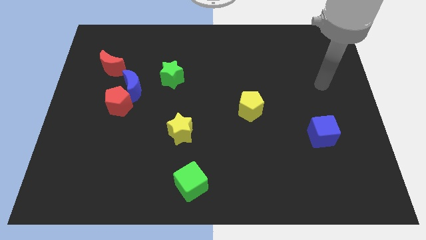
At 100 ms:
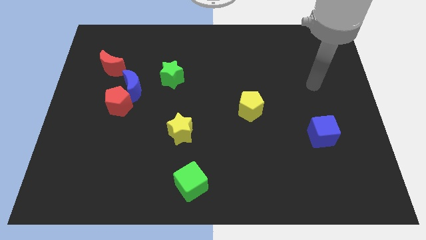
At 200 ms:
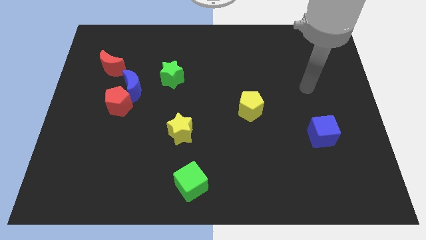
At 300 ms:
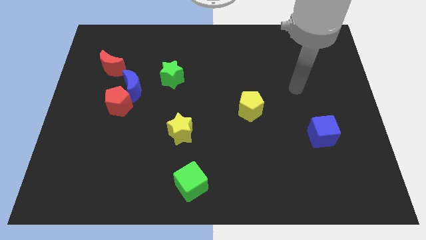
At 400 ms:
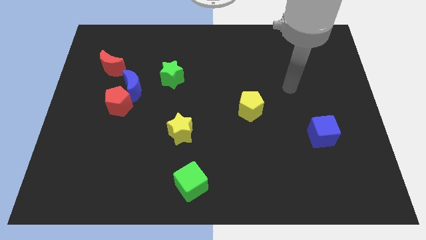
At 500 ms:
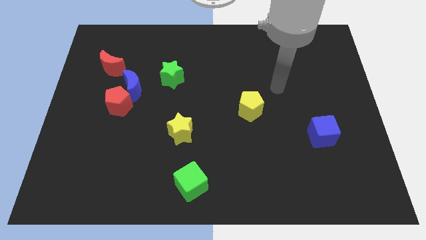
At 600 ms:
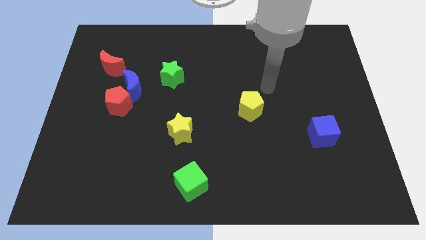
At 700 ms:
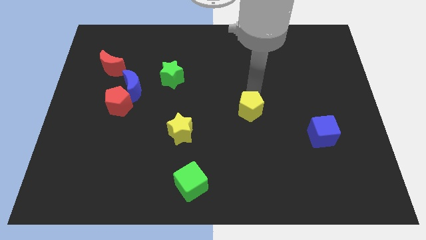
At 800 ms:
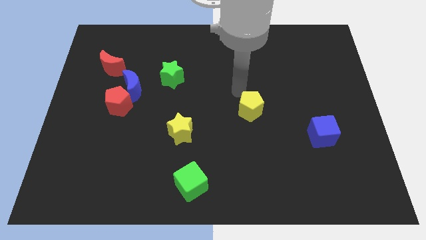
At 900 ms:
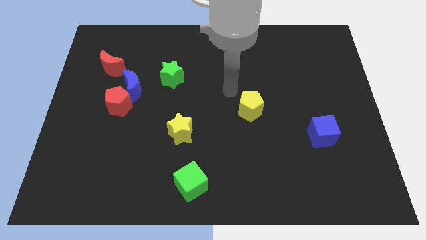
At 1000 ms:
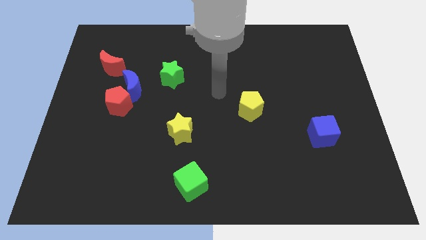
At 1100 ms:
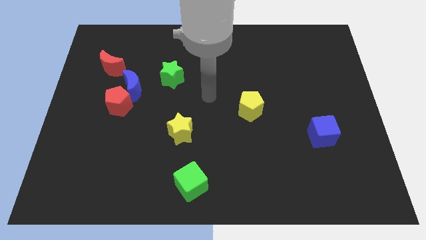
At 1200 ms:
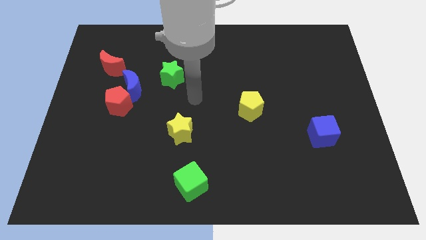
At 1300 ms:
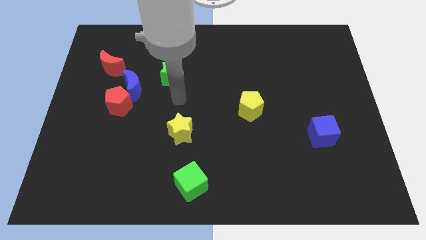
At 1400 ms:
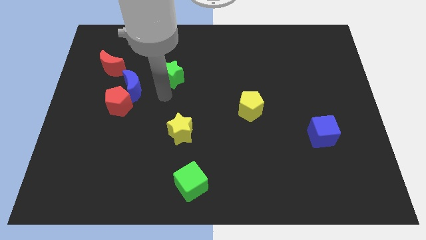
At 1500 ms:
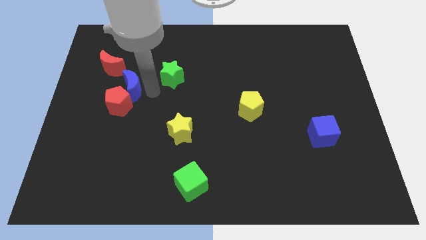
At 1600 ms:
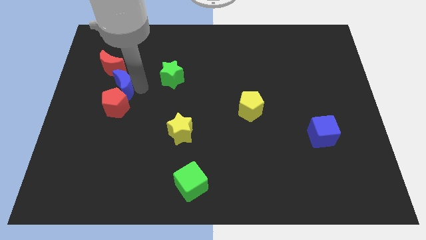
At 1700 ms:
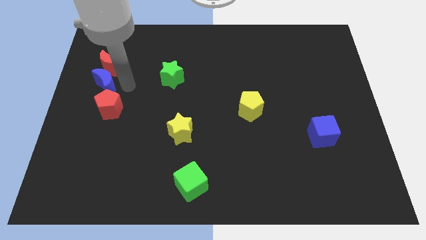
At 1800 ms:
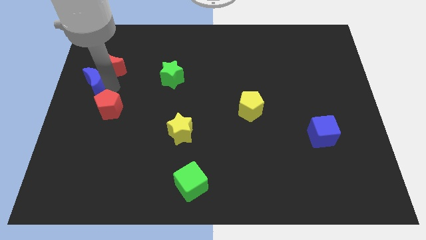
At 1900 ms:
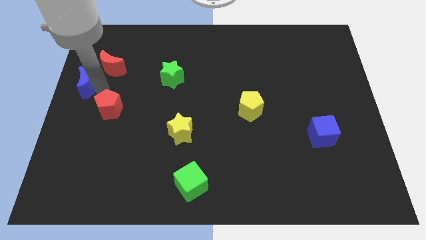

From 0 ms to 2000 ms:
move the red pentagon away from the blue moon

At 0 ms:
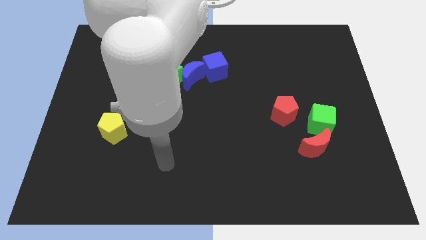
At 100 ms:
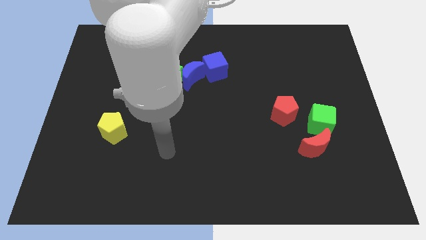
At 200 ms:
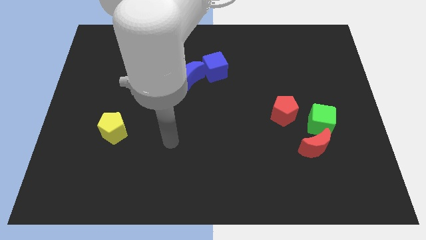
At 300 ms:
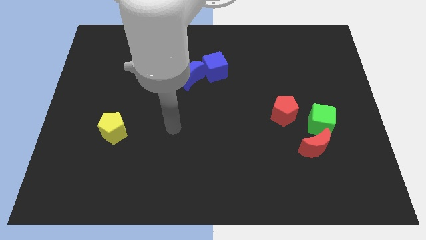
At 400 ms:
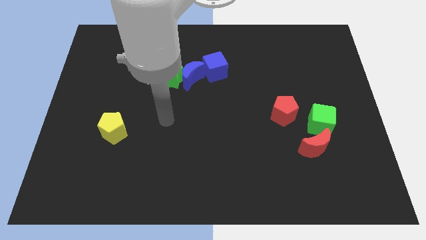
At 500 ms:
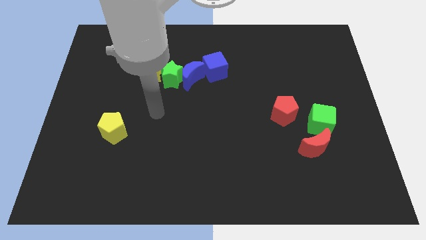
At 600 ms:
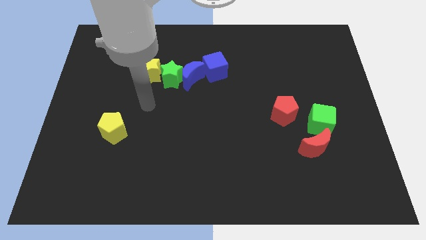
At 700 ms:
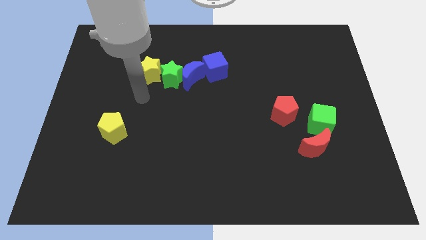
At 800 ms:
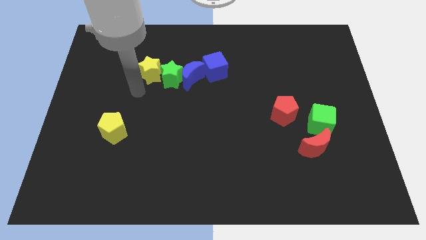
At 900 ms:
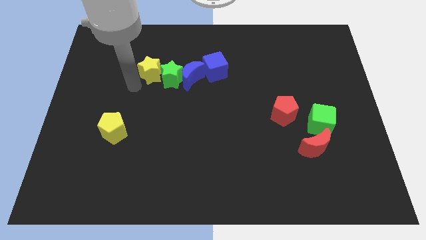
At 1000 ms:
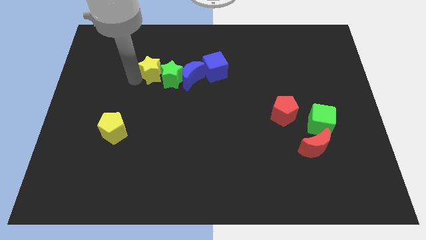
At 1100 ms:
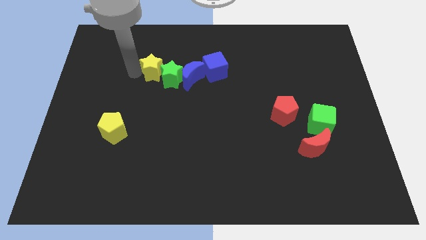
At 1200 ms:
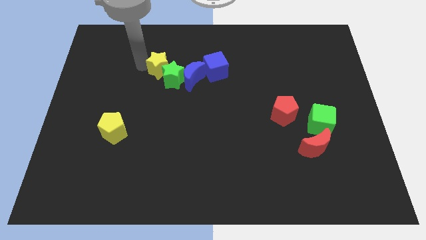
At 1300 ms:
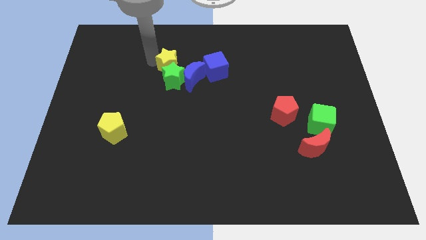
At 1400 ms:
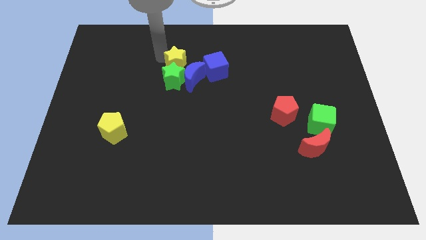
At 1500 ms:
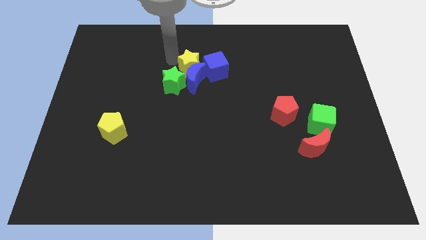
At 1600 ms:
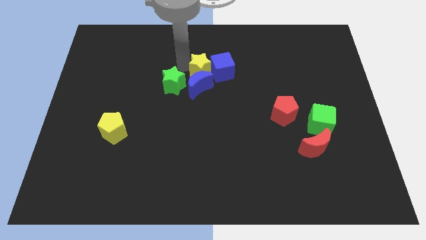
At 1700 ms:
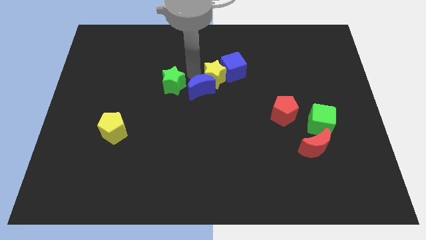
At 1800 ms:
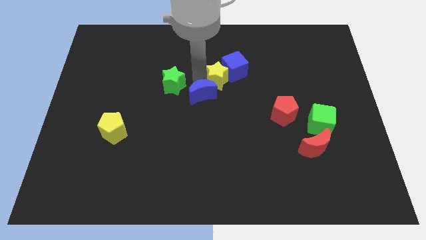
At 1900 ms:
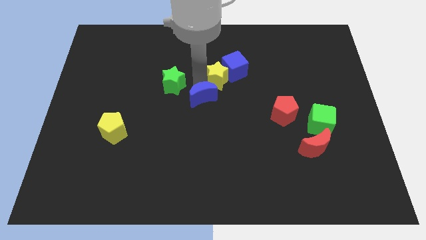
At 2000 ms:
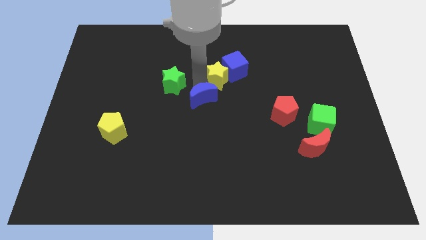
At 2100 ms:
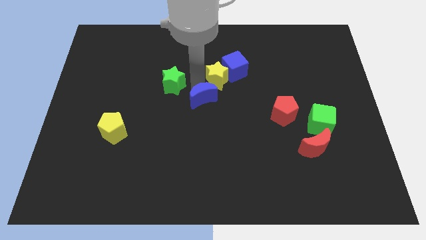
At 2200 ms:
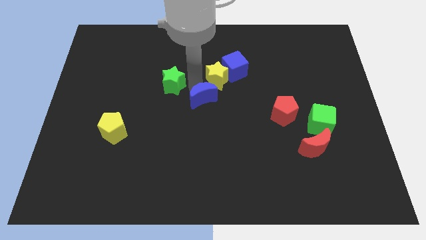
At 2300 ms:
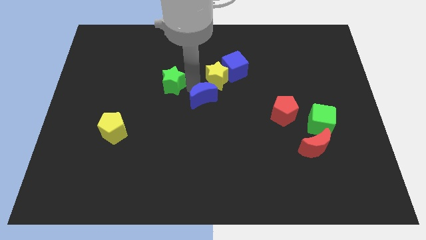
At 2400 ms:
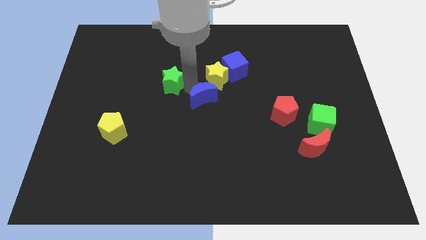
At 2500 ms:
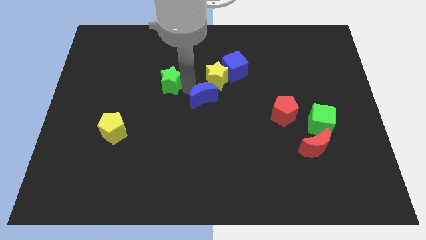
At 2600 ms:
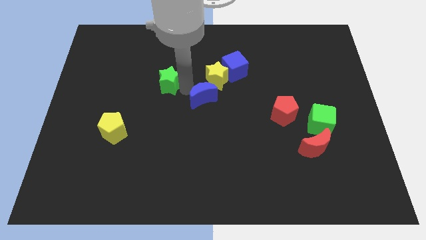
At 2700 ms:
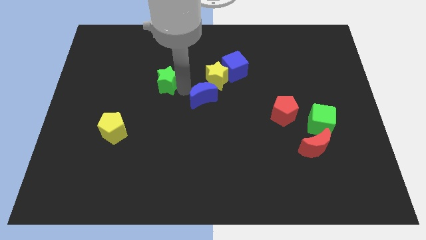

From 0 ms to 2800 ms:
pull the green star apart from the blue moon and yellow star

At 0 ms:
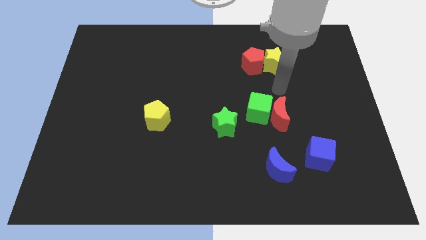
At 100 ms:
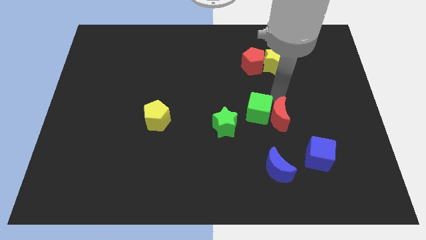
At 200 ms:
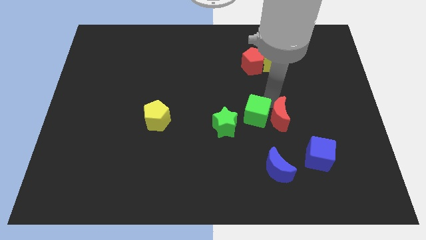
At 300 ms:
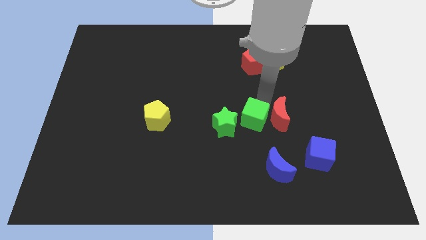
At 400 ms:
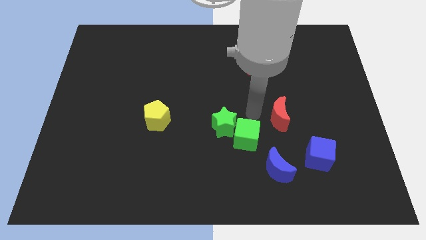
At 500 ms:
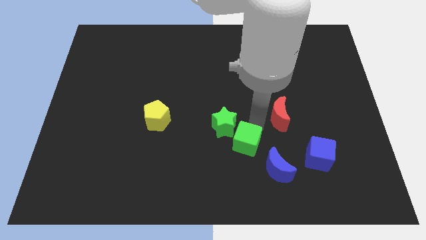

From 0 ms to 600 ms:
pull the red moon apart from the green cube

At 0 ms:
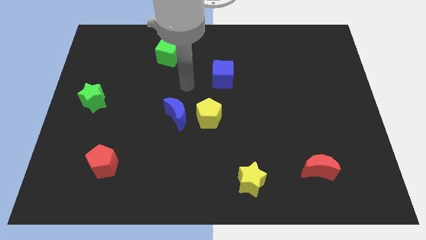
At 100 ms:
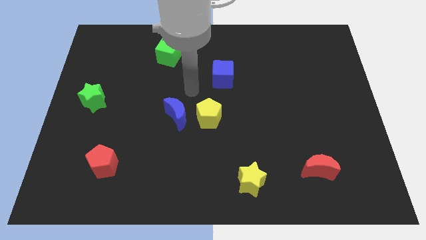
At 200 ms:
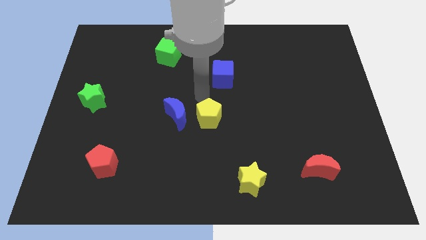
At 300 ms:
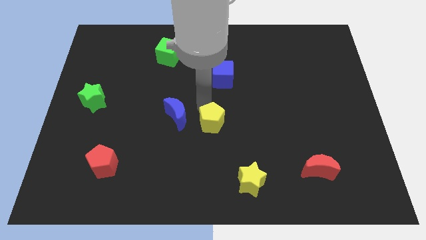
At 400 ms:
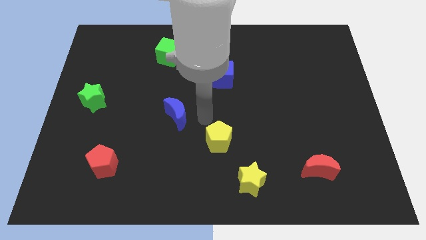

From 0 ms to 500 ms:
pull the blue moon apart from the yellow pentagon

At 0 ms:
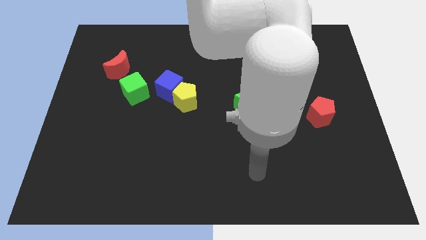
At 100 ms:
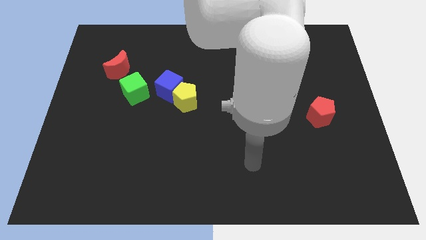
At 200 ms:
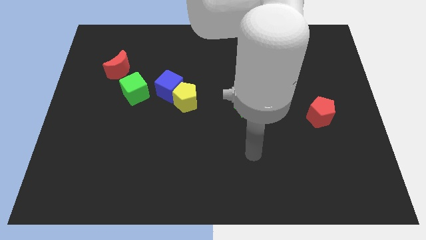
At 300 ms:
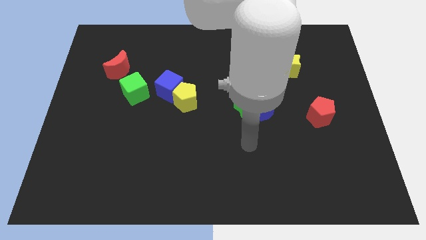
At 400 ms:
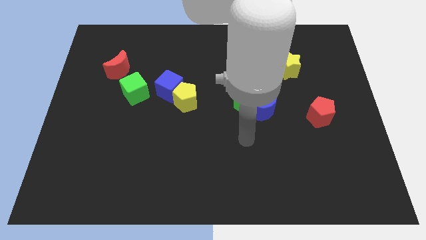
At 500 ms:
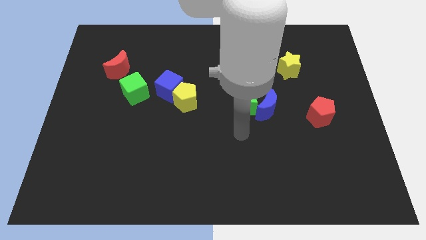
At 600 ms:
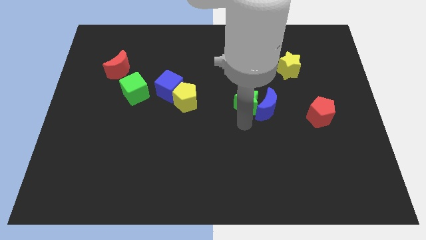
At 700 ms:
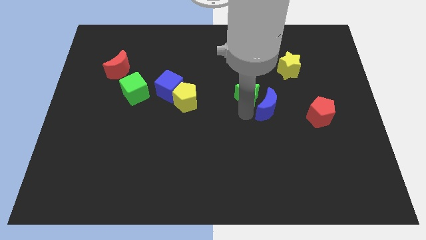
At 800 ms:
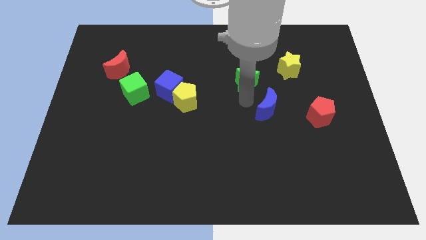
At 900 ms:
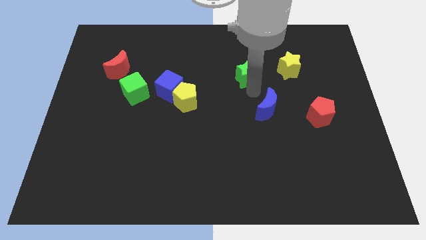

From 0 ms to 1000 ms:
separate the blue moon from the green star

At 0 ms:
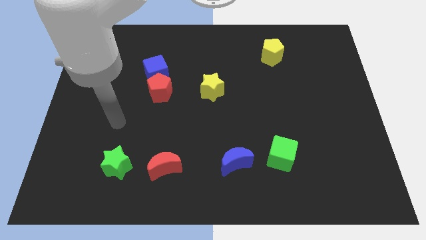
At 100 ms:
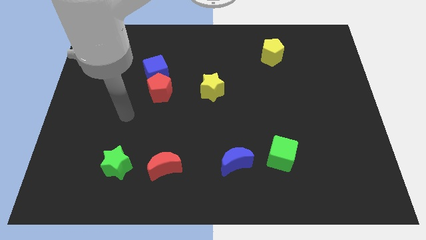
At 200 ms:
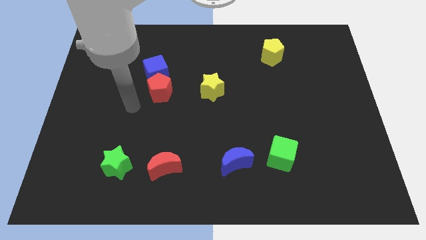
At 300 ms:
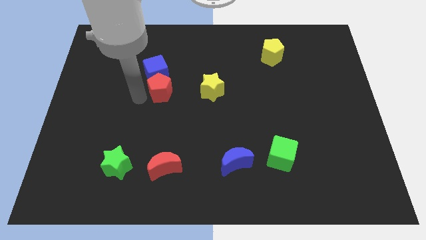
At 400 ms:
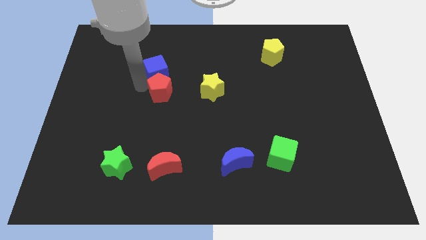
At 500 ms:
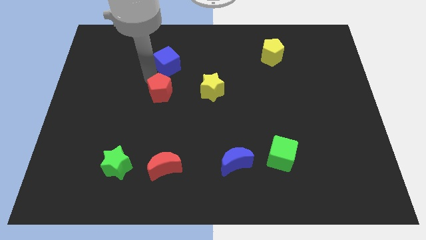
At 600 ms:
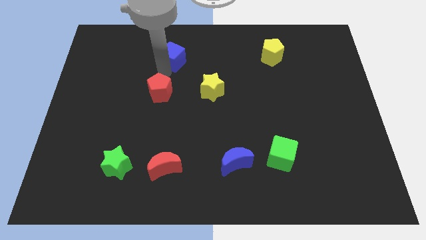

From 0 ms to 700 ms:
separate the red pentagon from the blue cube

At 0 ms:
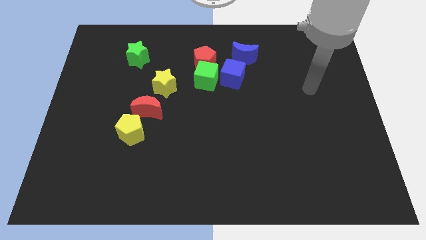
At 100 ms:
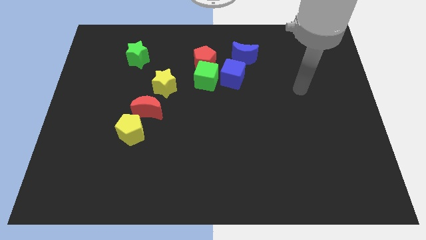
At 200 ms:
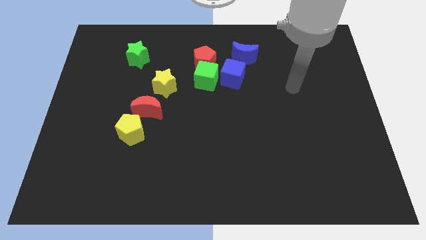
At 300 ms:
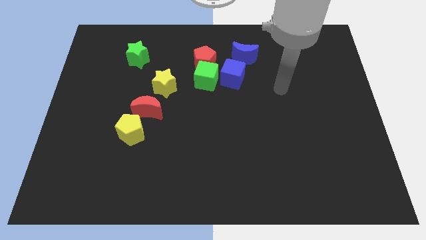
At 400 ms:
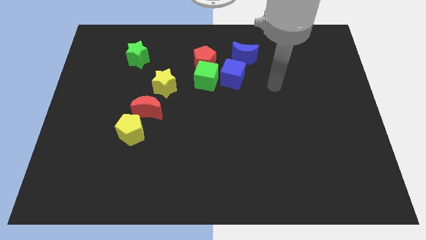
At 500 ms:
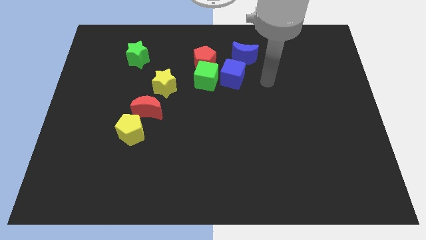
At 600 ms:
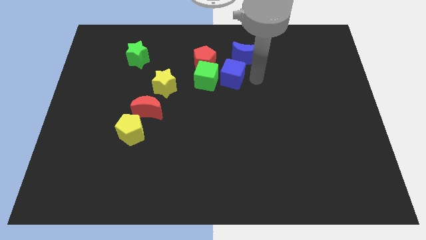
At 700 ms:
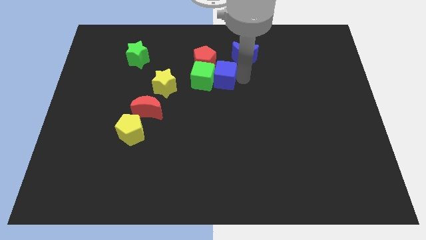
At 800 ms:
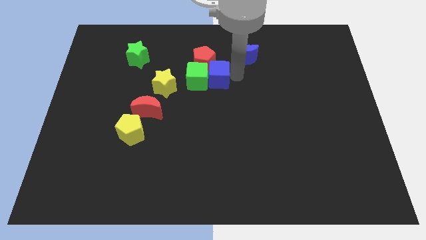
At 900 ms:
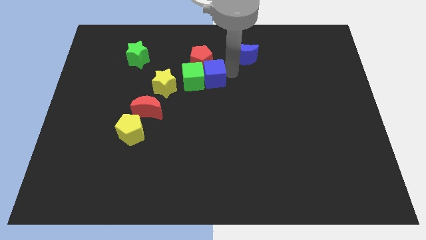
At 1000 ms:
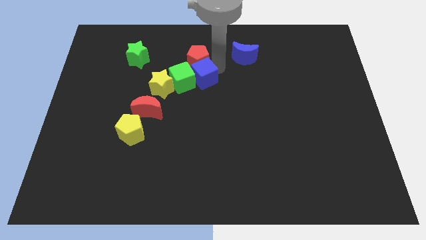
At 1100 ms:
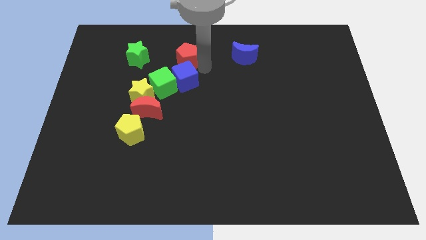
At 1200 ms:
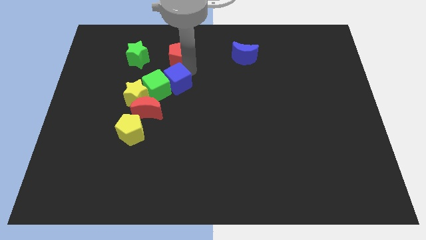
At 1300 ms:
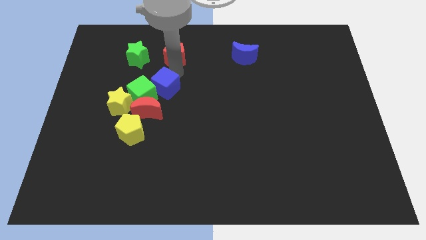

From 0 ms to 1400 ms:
separate the green cube from the red pentagon and blue cube

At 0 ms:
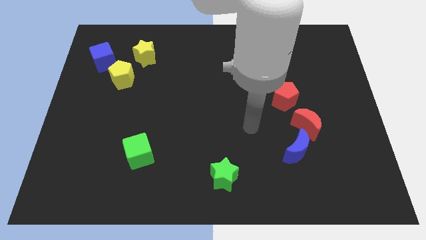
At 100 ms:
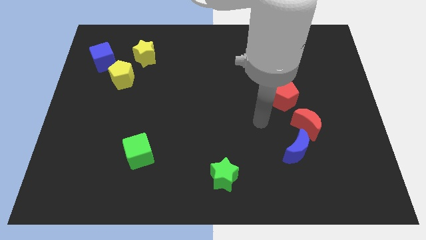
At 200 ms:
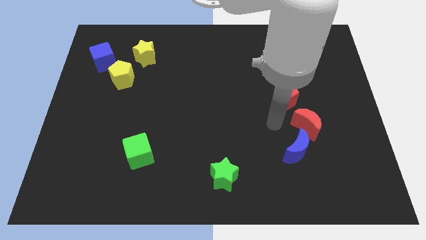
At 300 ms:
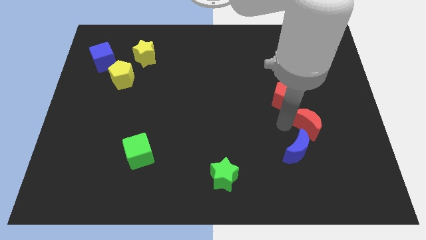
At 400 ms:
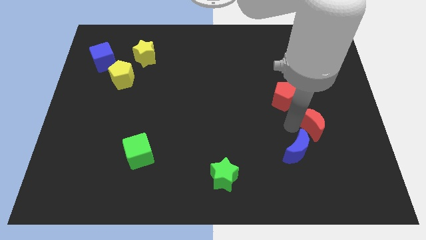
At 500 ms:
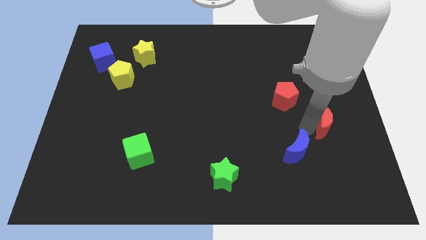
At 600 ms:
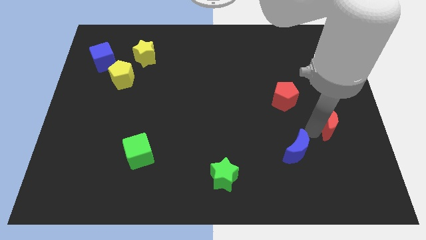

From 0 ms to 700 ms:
separate the blue moon from the red moon
